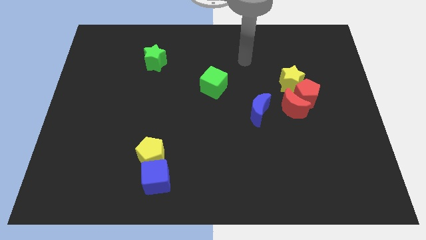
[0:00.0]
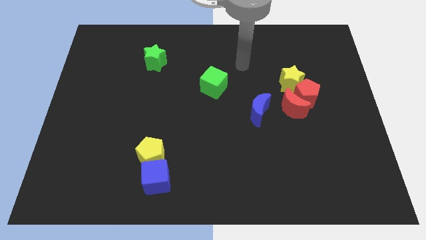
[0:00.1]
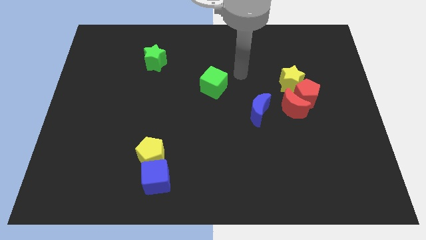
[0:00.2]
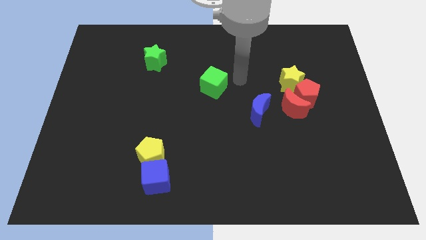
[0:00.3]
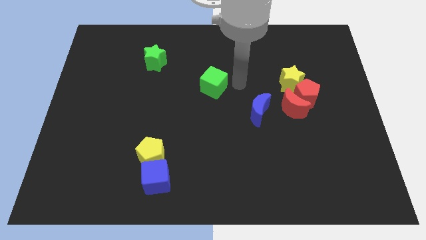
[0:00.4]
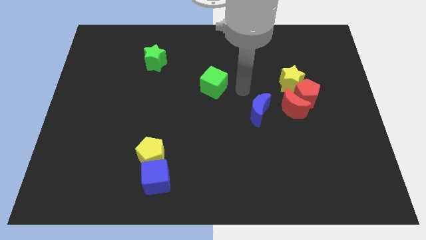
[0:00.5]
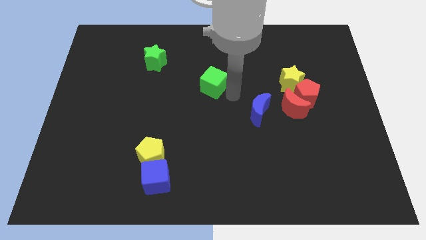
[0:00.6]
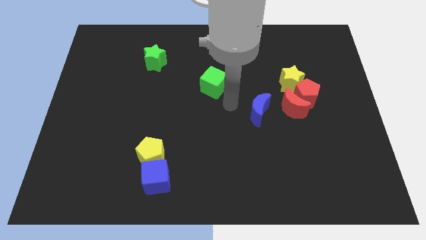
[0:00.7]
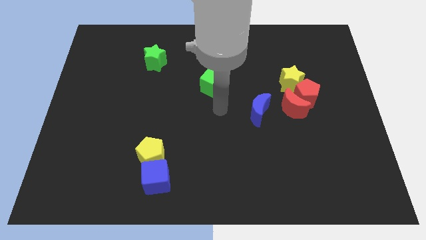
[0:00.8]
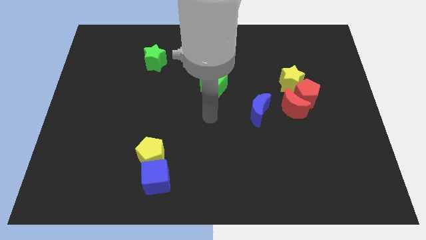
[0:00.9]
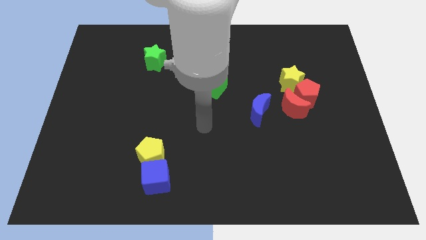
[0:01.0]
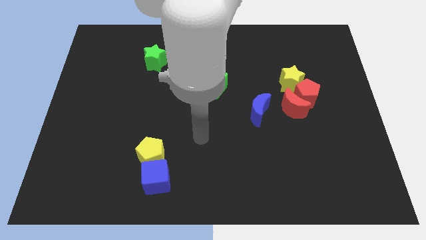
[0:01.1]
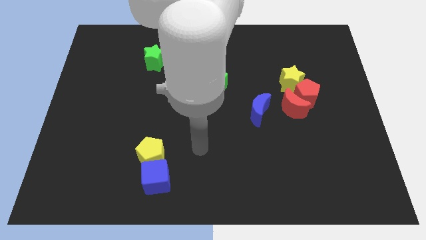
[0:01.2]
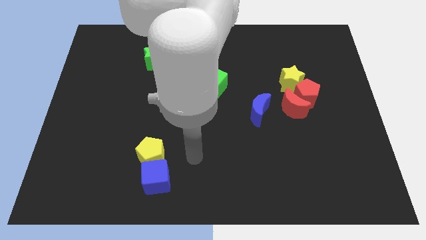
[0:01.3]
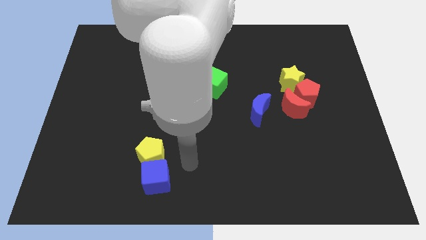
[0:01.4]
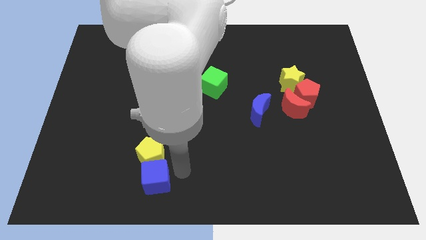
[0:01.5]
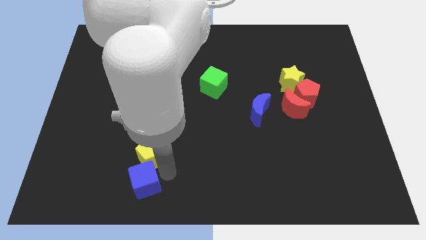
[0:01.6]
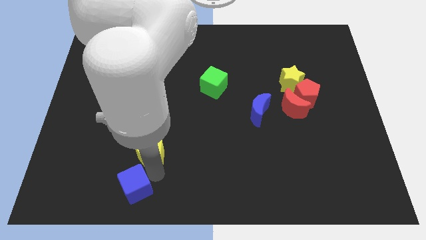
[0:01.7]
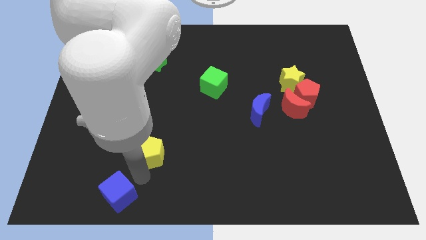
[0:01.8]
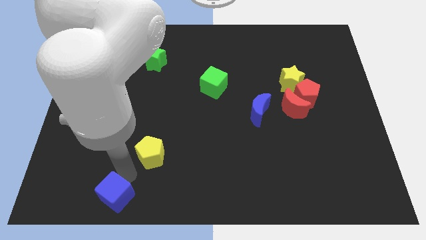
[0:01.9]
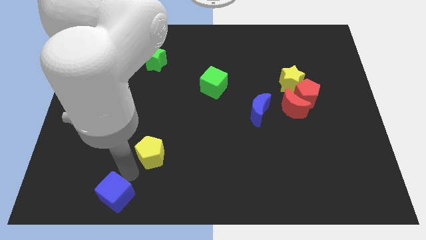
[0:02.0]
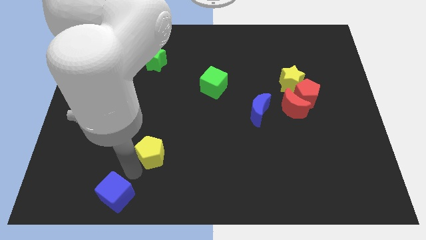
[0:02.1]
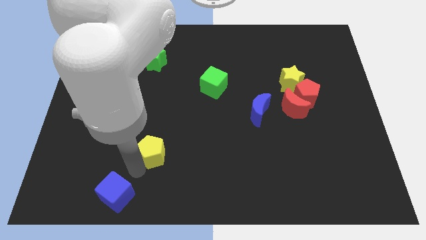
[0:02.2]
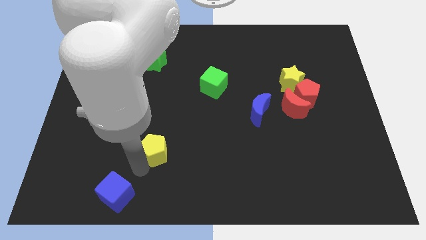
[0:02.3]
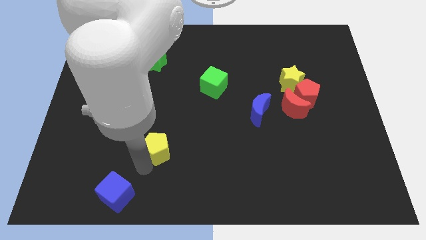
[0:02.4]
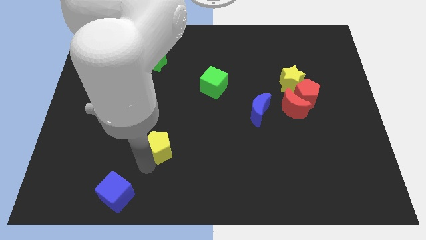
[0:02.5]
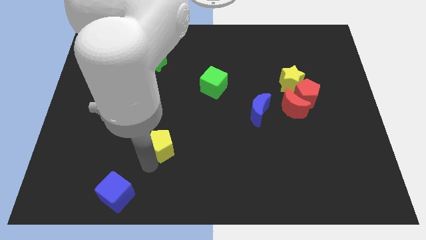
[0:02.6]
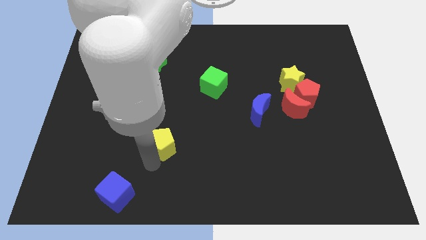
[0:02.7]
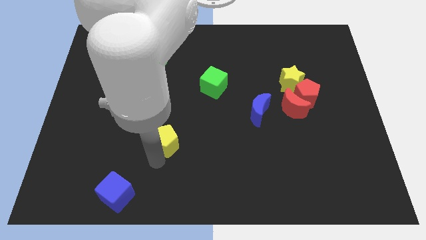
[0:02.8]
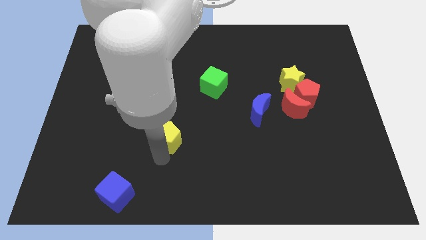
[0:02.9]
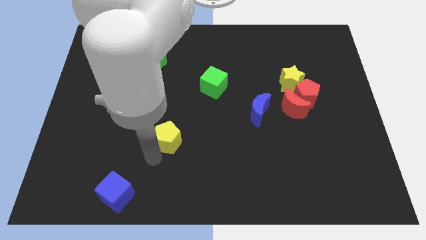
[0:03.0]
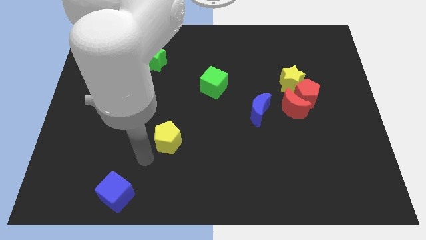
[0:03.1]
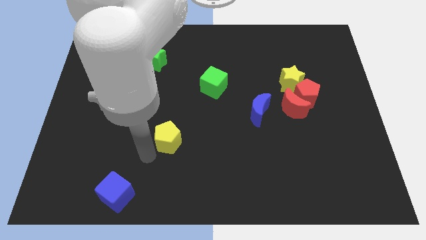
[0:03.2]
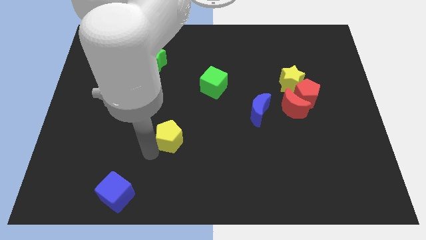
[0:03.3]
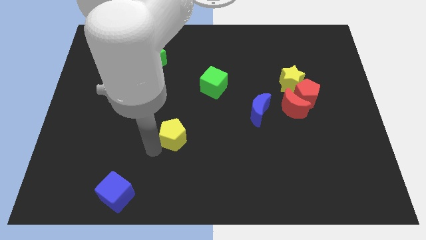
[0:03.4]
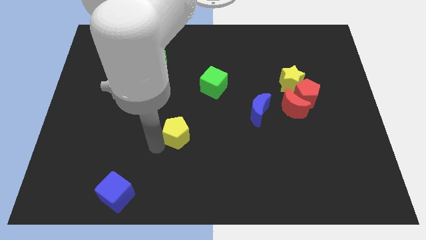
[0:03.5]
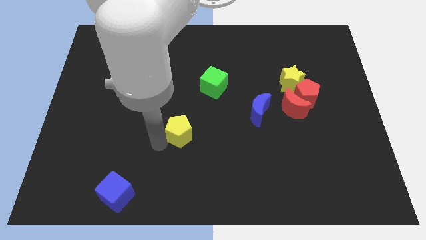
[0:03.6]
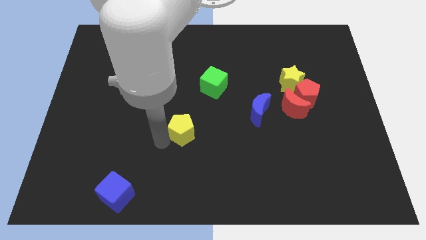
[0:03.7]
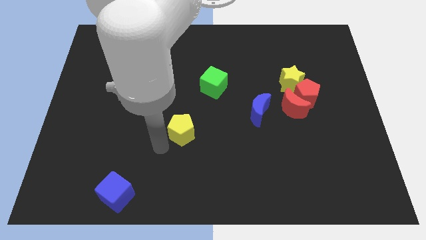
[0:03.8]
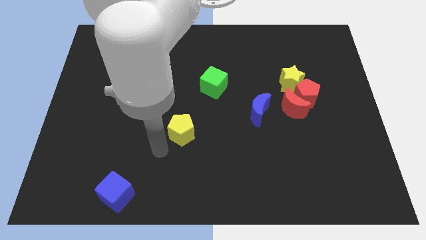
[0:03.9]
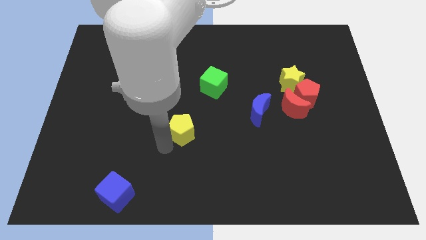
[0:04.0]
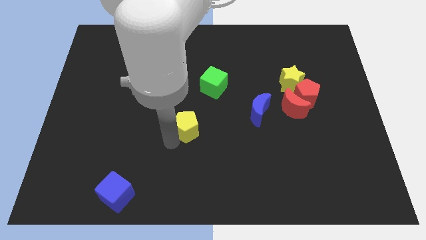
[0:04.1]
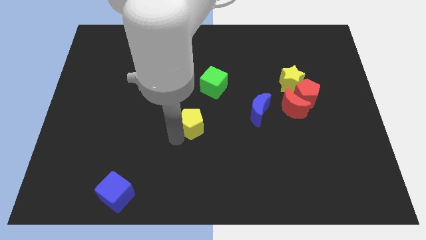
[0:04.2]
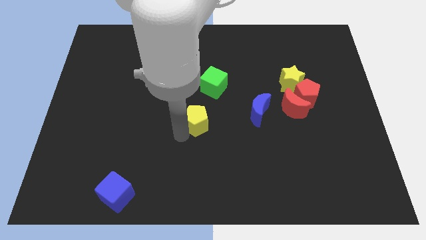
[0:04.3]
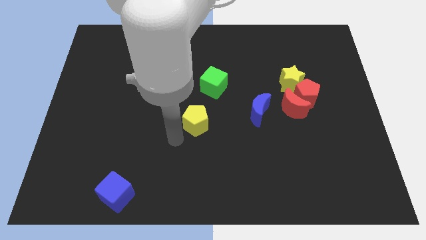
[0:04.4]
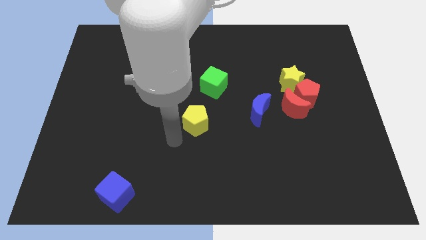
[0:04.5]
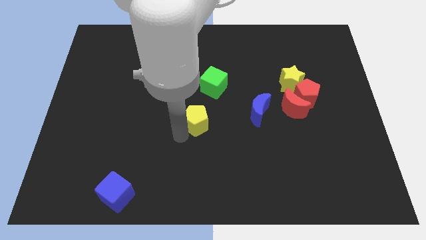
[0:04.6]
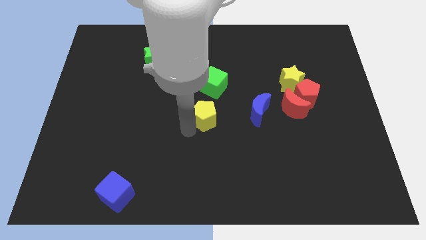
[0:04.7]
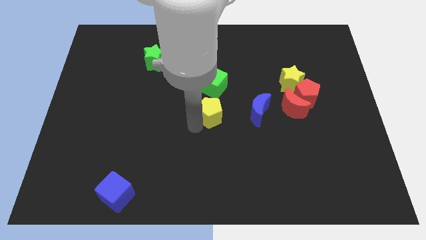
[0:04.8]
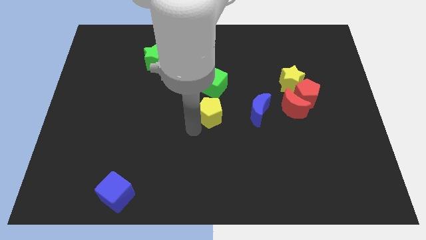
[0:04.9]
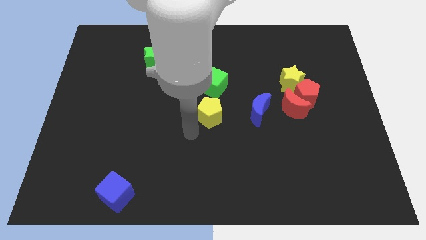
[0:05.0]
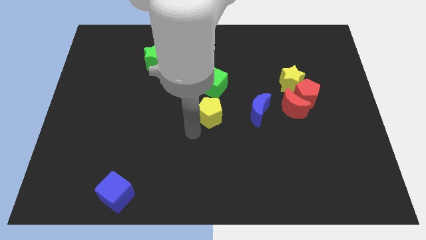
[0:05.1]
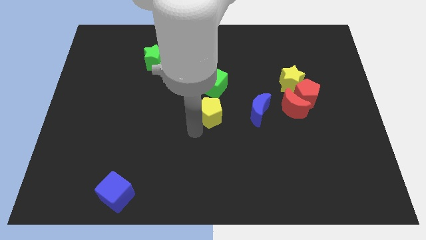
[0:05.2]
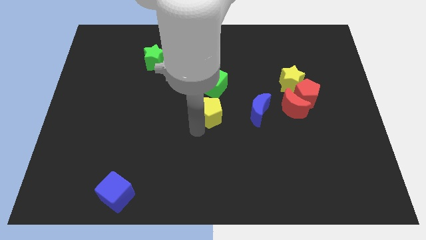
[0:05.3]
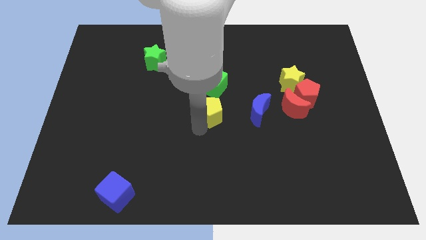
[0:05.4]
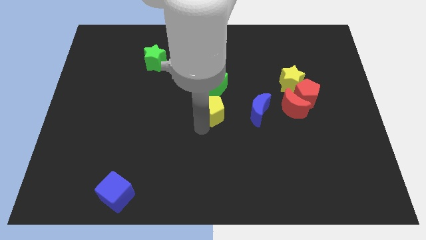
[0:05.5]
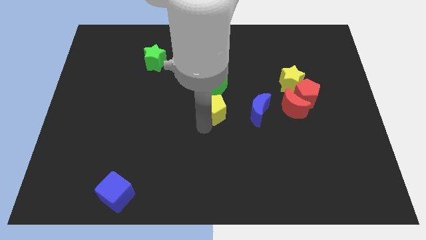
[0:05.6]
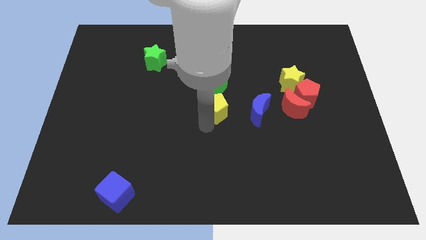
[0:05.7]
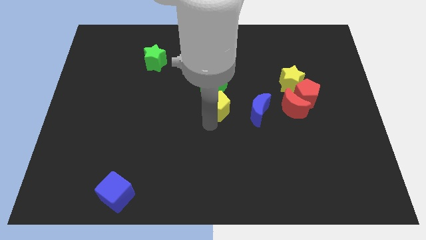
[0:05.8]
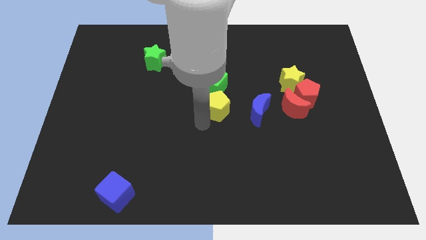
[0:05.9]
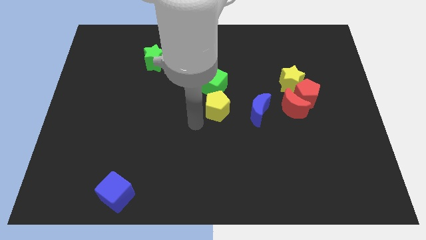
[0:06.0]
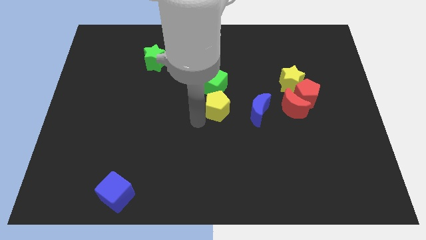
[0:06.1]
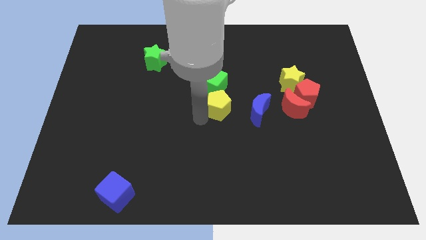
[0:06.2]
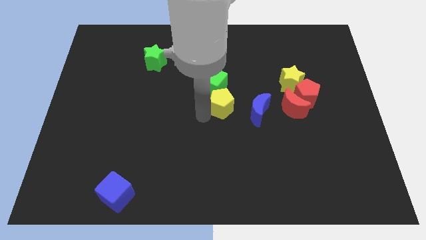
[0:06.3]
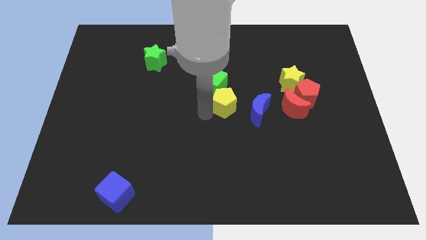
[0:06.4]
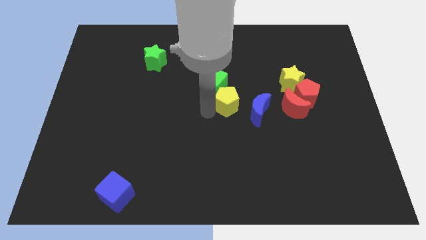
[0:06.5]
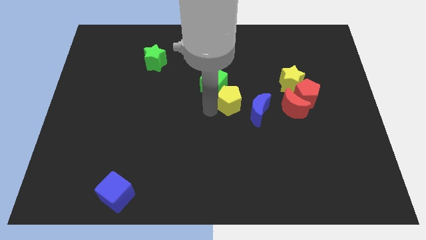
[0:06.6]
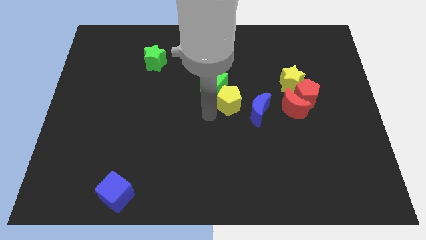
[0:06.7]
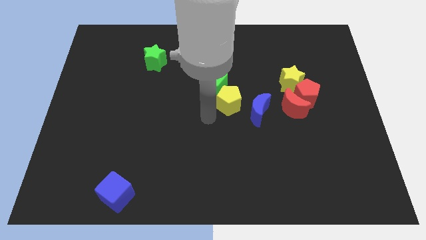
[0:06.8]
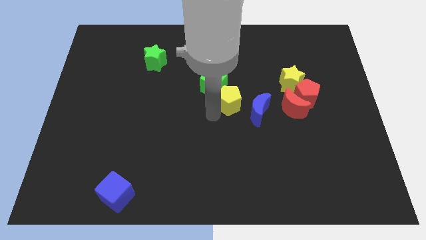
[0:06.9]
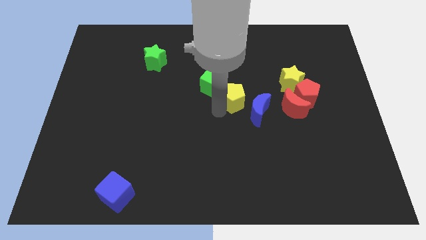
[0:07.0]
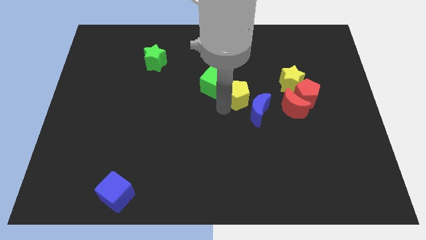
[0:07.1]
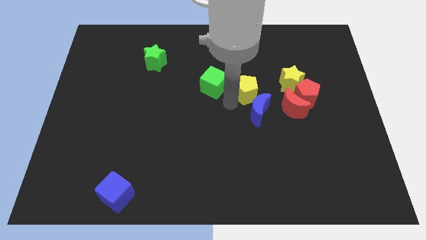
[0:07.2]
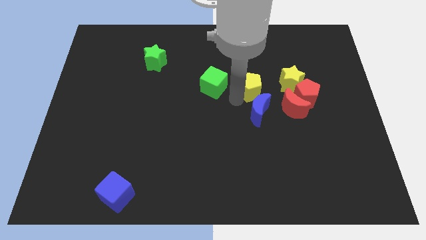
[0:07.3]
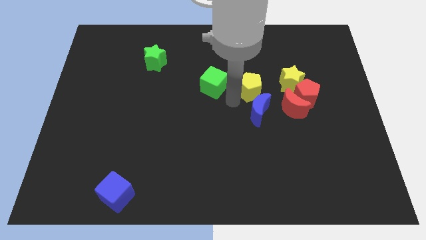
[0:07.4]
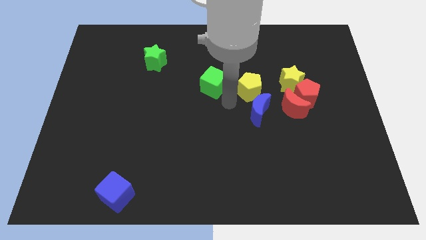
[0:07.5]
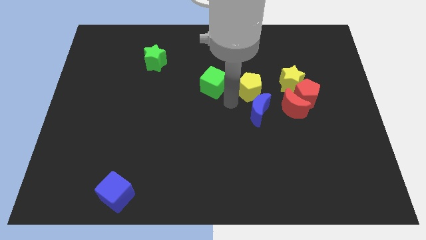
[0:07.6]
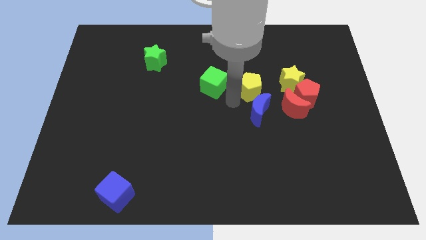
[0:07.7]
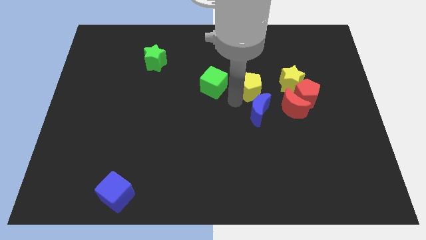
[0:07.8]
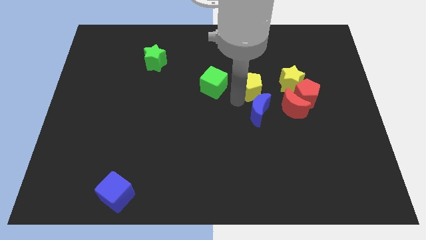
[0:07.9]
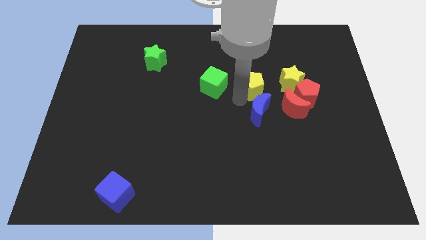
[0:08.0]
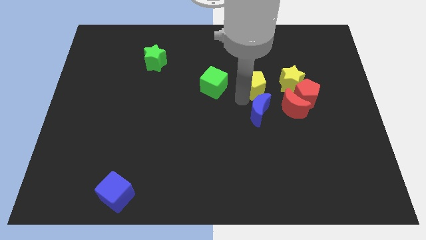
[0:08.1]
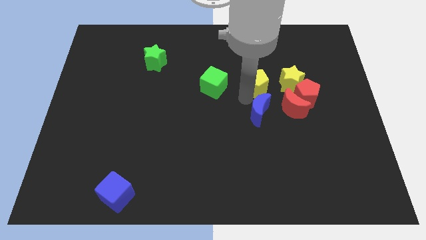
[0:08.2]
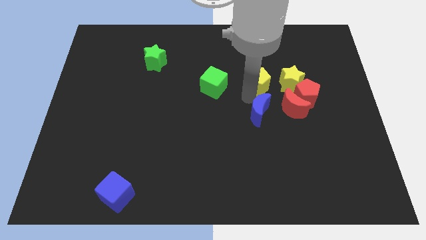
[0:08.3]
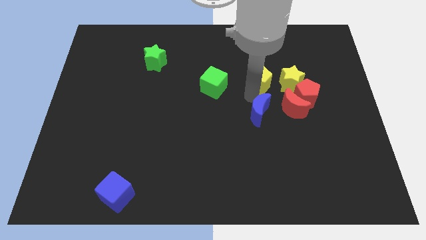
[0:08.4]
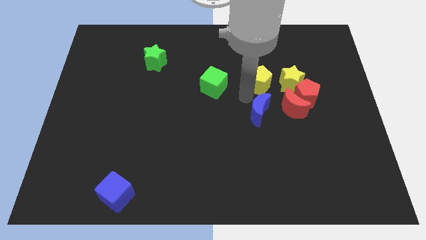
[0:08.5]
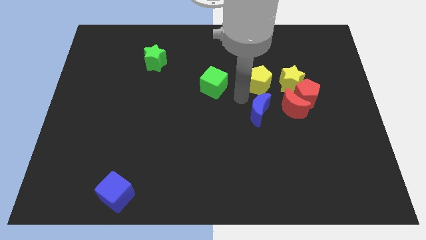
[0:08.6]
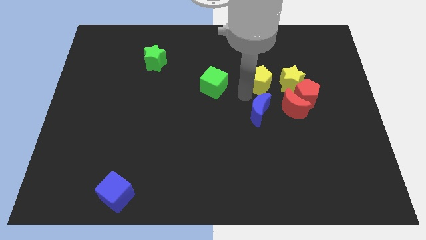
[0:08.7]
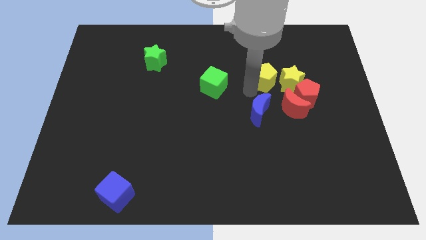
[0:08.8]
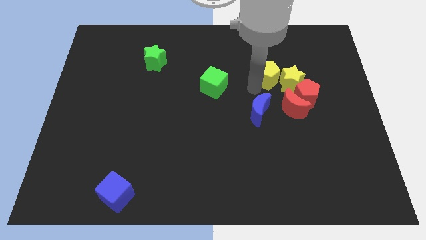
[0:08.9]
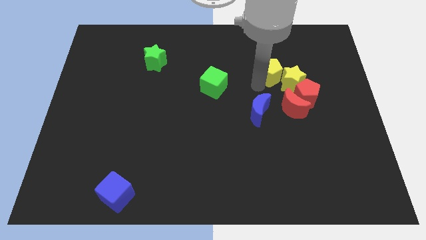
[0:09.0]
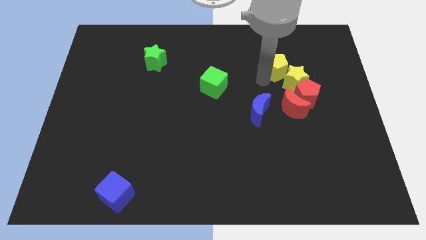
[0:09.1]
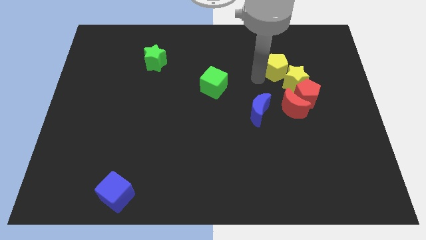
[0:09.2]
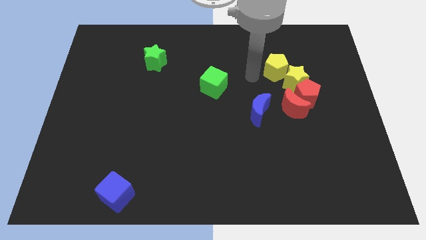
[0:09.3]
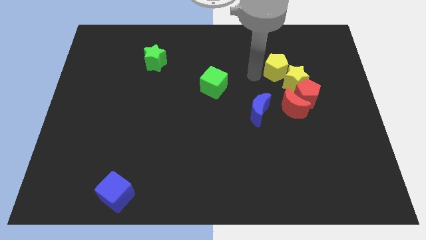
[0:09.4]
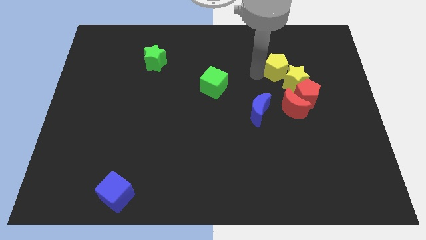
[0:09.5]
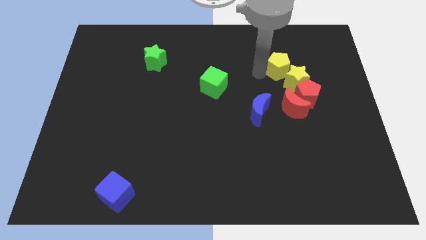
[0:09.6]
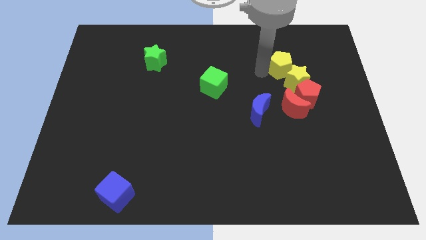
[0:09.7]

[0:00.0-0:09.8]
slide the yellow pentagon to the top of the red pentagon
